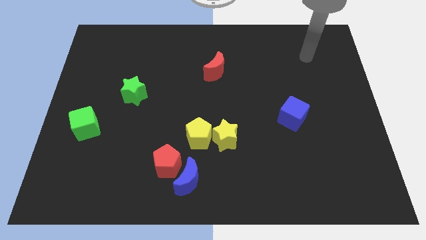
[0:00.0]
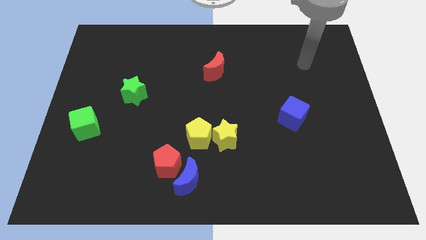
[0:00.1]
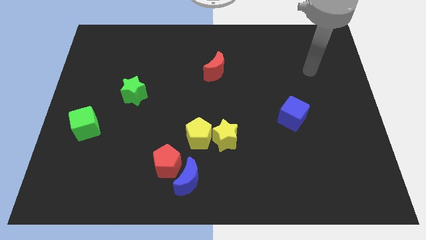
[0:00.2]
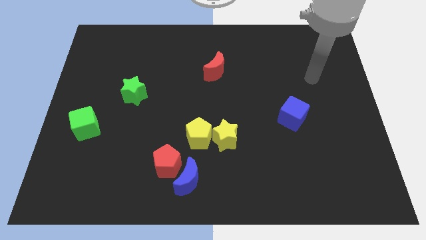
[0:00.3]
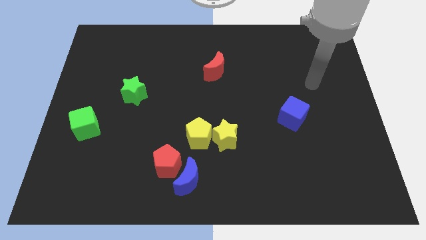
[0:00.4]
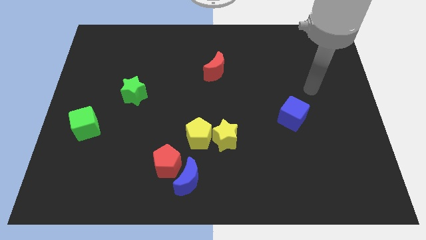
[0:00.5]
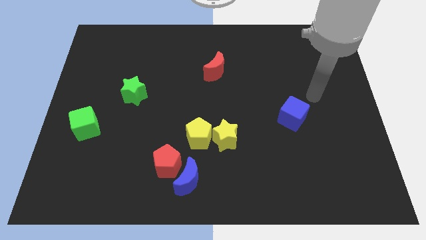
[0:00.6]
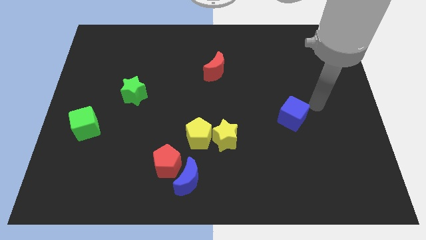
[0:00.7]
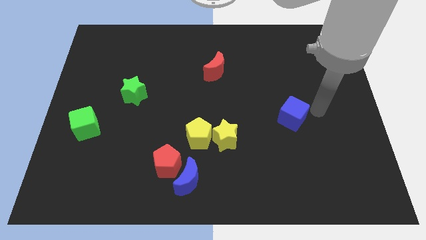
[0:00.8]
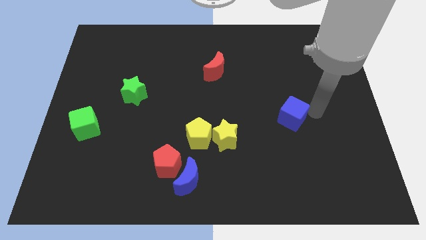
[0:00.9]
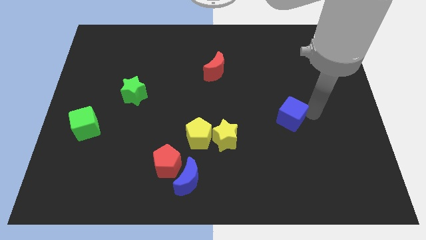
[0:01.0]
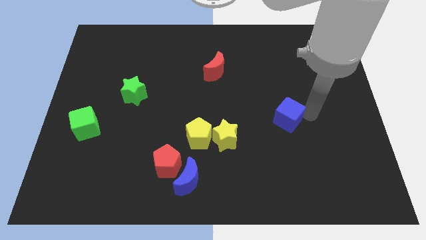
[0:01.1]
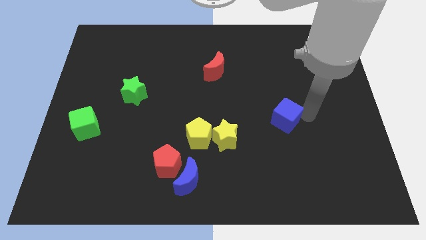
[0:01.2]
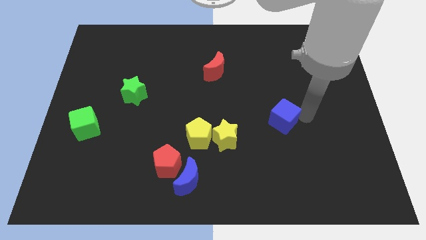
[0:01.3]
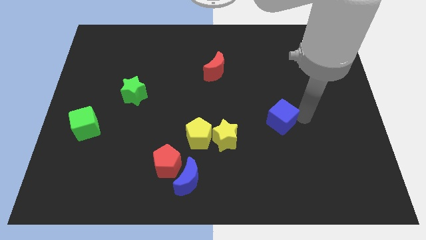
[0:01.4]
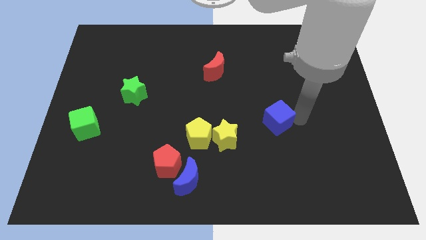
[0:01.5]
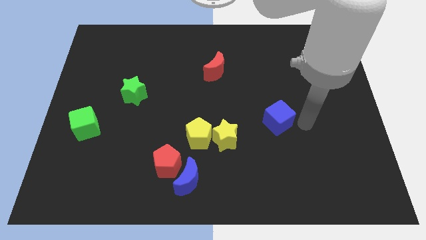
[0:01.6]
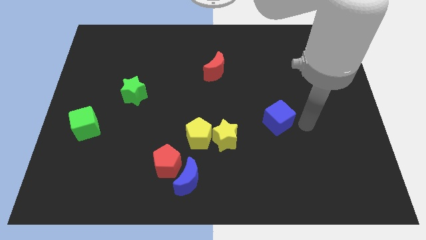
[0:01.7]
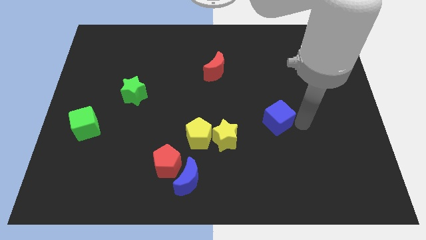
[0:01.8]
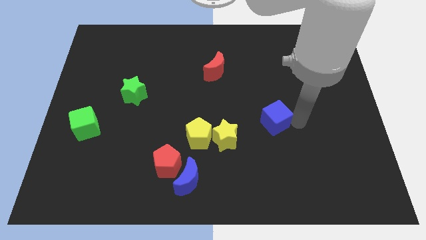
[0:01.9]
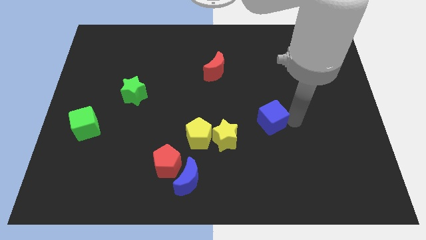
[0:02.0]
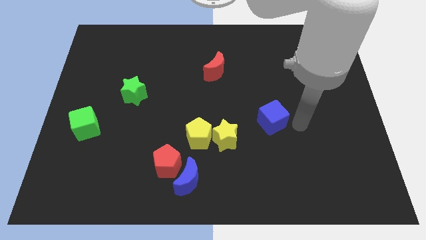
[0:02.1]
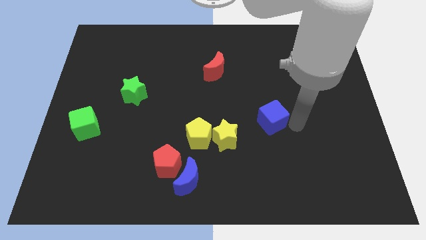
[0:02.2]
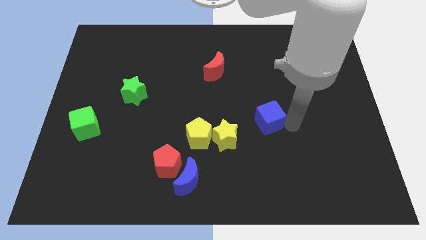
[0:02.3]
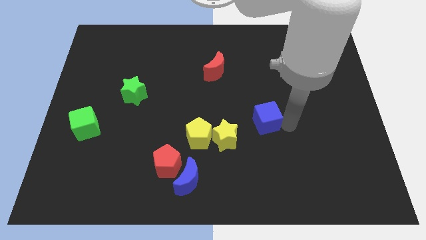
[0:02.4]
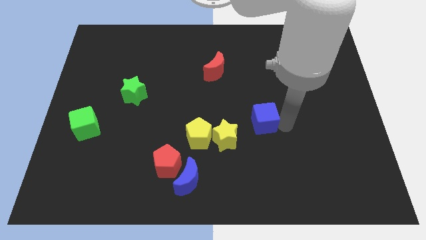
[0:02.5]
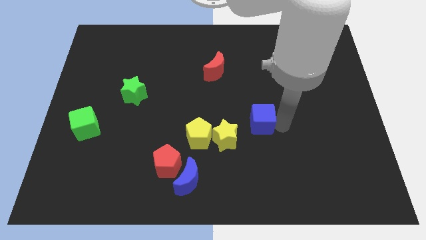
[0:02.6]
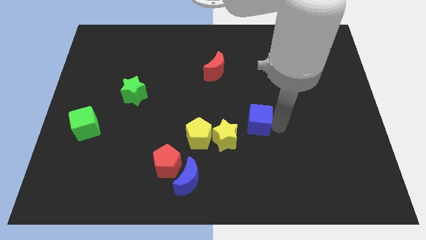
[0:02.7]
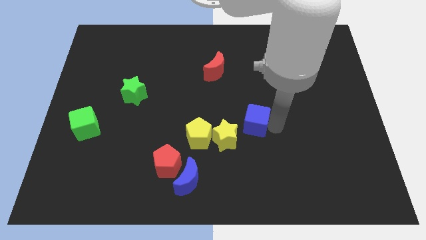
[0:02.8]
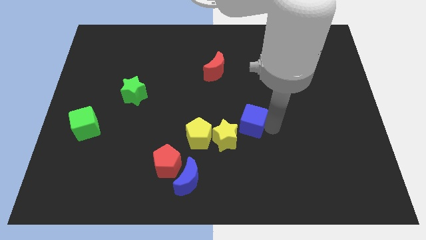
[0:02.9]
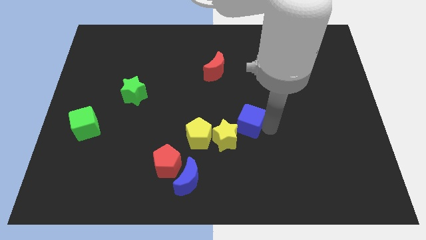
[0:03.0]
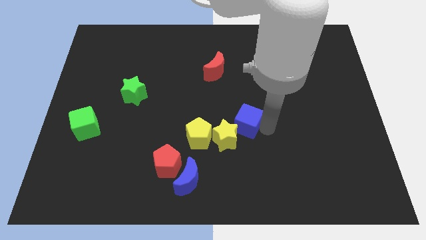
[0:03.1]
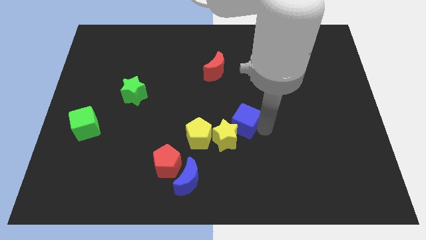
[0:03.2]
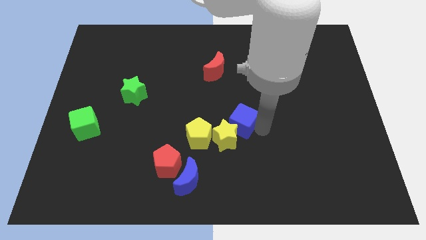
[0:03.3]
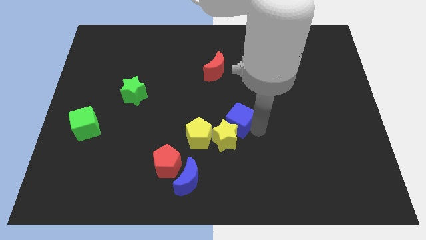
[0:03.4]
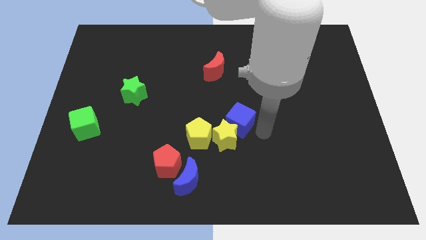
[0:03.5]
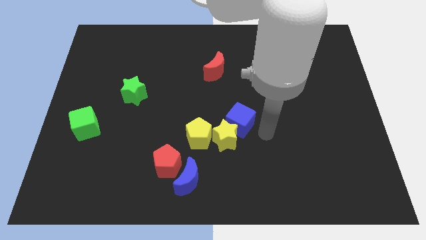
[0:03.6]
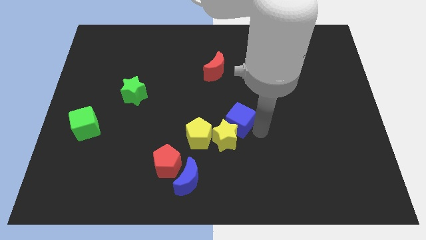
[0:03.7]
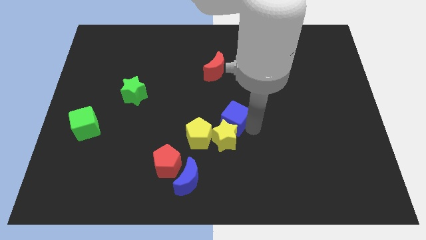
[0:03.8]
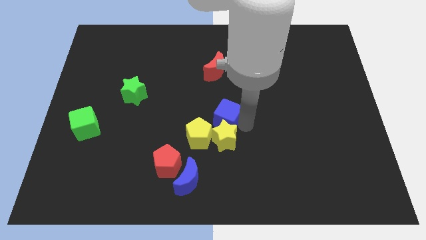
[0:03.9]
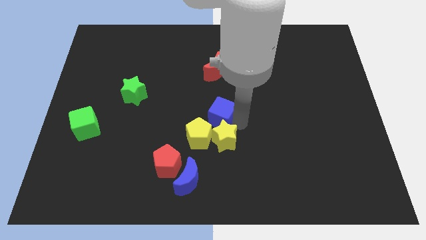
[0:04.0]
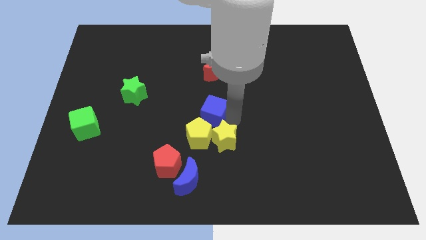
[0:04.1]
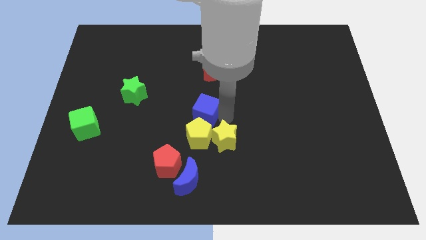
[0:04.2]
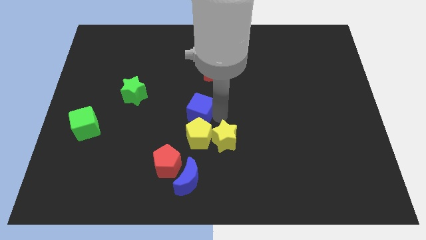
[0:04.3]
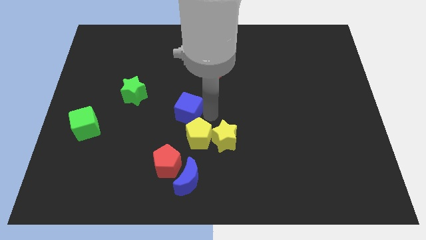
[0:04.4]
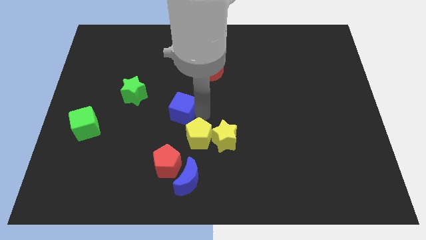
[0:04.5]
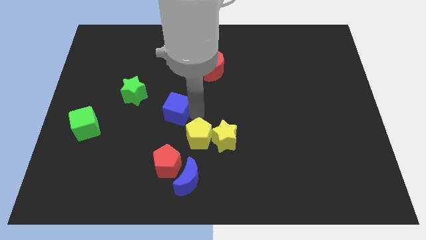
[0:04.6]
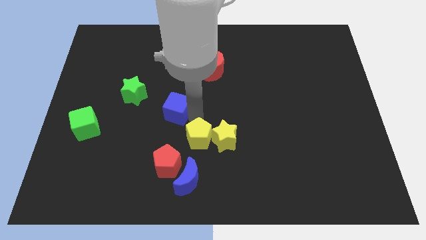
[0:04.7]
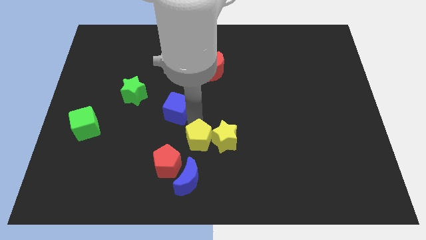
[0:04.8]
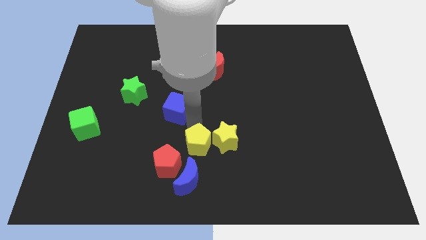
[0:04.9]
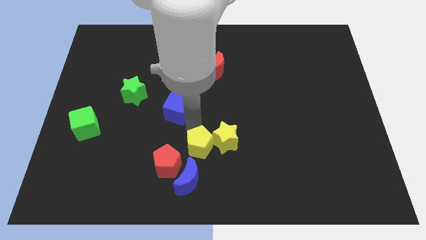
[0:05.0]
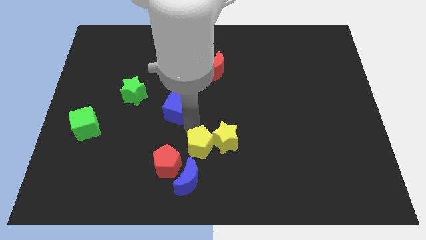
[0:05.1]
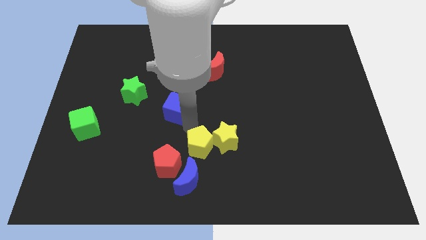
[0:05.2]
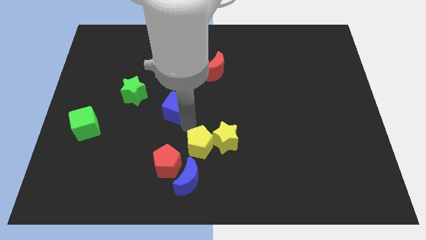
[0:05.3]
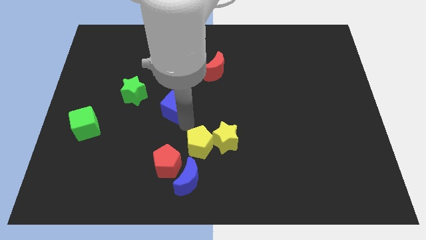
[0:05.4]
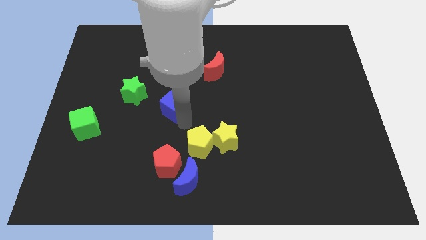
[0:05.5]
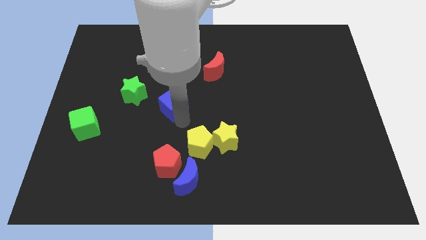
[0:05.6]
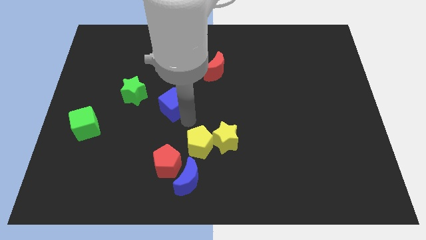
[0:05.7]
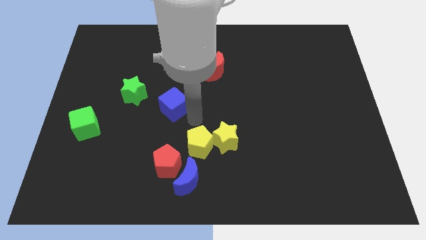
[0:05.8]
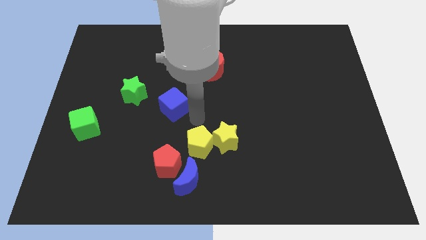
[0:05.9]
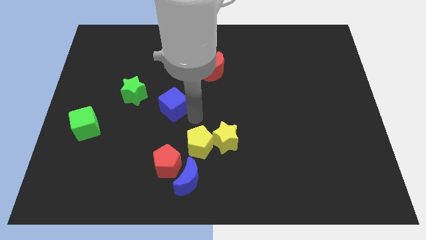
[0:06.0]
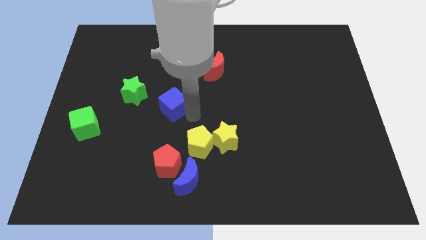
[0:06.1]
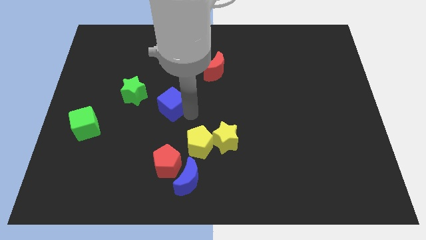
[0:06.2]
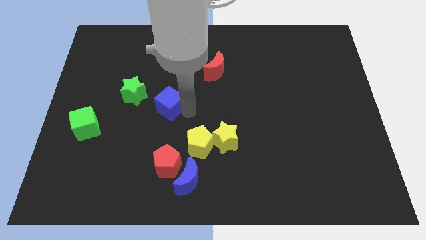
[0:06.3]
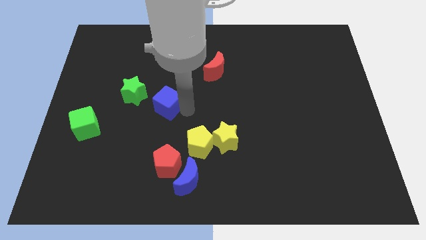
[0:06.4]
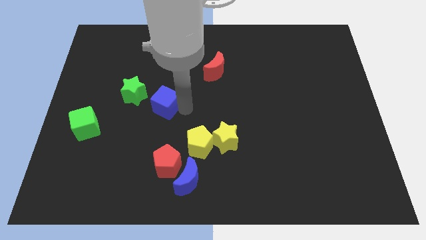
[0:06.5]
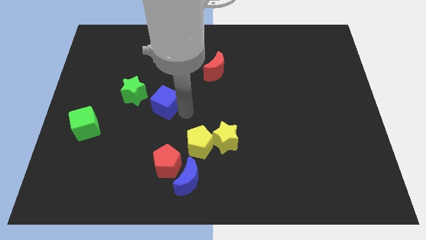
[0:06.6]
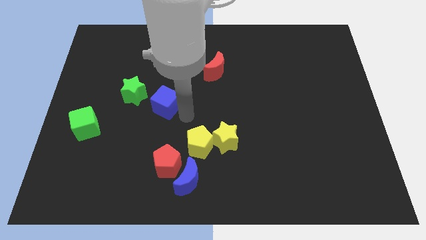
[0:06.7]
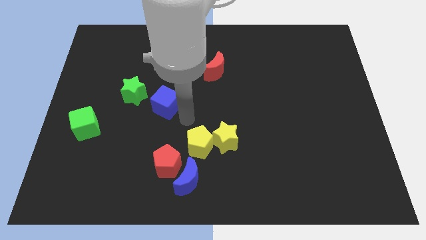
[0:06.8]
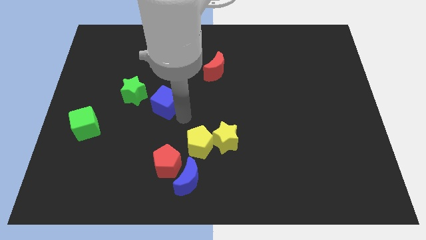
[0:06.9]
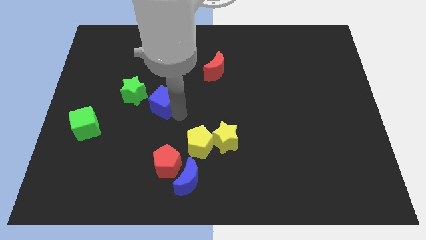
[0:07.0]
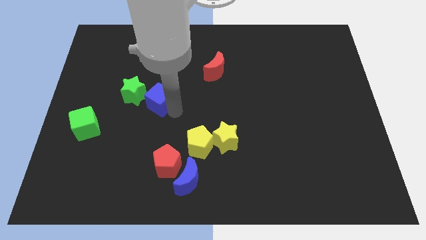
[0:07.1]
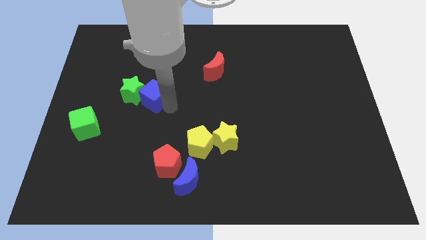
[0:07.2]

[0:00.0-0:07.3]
push the blue cube to the green star

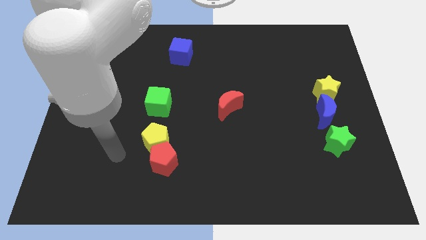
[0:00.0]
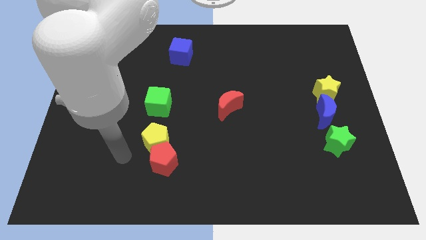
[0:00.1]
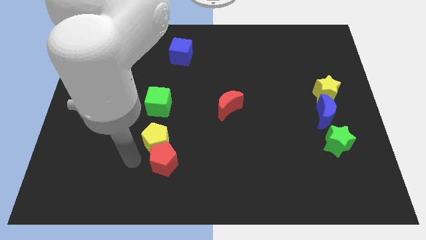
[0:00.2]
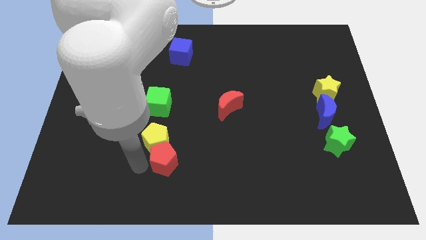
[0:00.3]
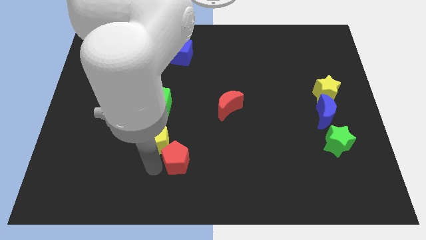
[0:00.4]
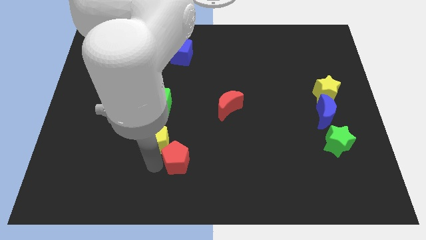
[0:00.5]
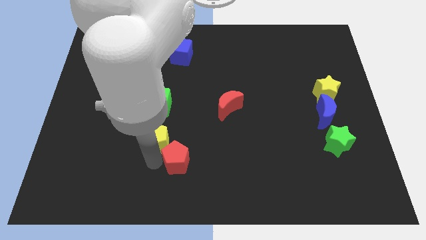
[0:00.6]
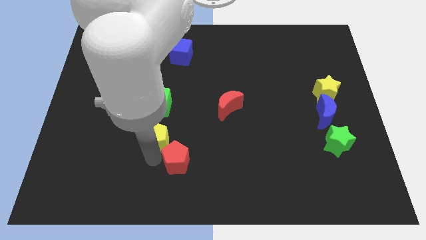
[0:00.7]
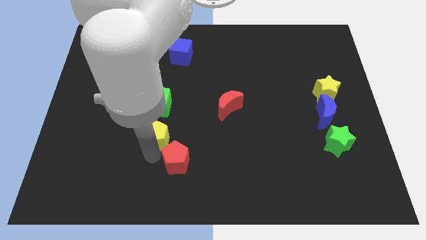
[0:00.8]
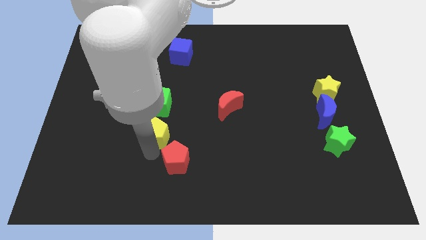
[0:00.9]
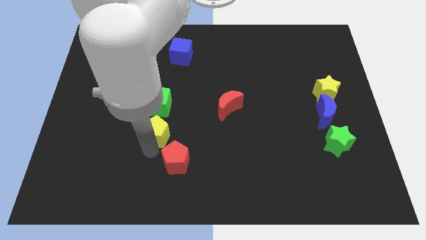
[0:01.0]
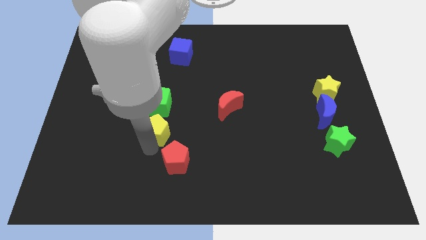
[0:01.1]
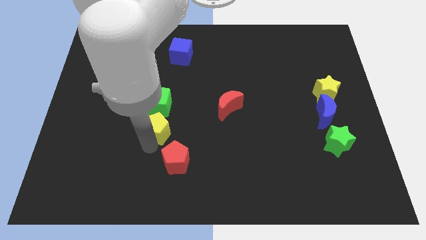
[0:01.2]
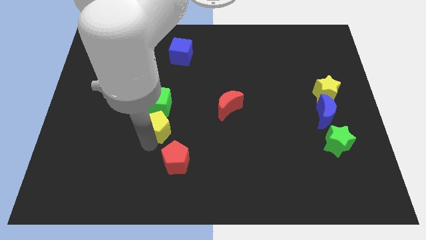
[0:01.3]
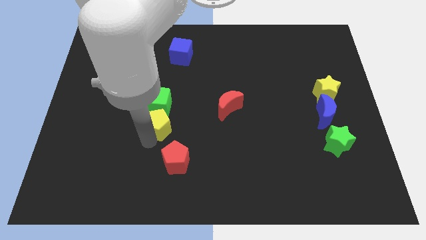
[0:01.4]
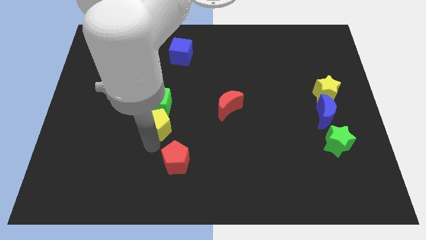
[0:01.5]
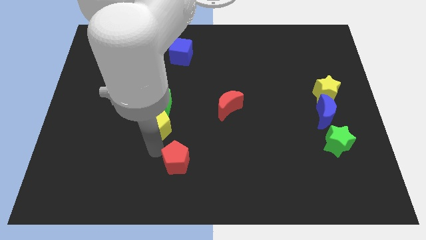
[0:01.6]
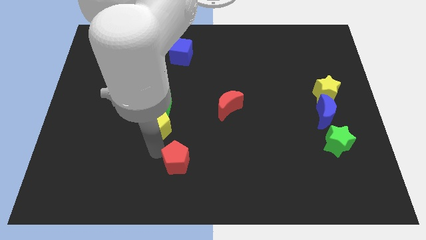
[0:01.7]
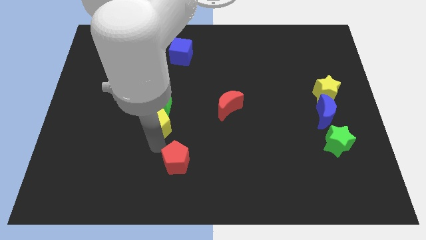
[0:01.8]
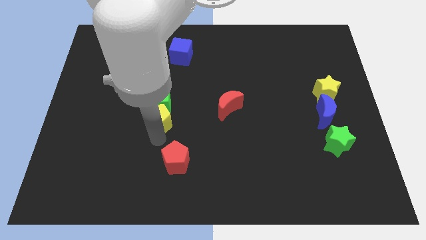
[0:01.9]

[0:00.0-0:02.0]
move the yellow pentagon to the green cube
